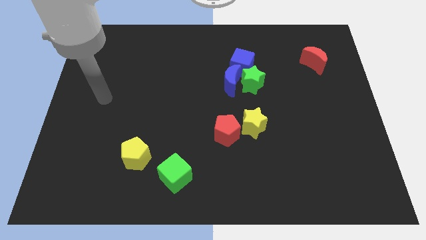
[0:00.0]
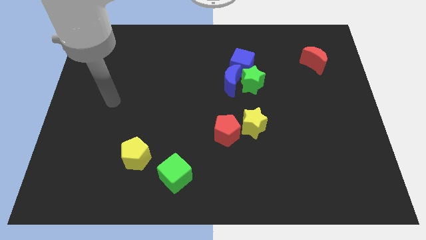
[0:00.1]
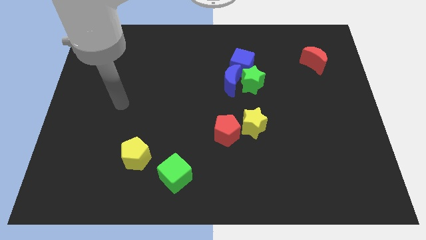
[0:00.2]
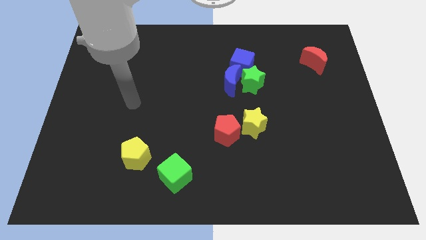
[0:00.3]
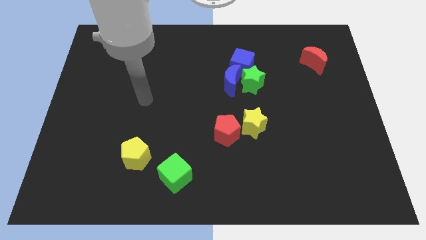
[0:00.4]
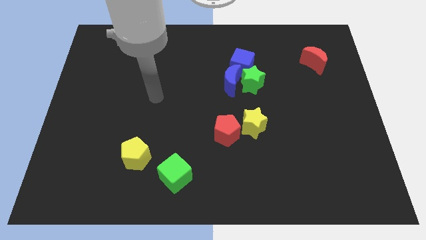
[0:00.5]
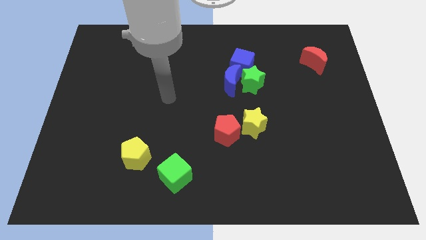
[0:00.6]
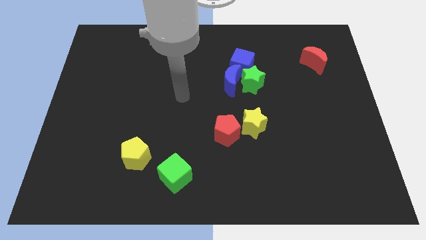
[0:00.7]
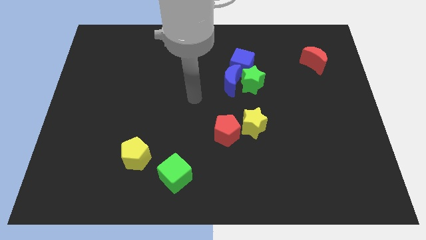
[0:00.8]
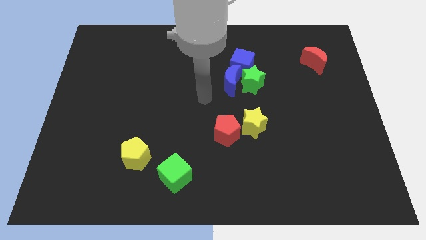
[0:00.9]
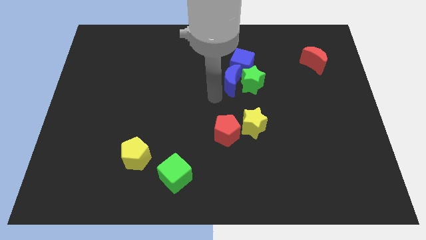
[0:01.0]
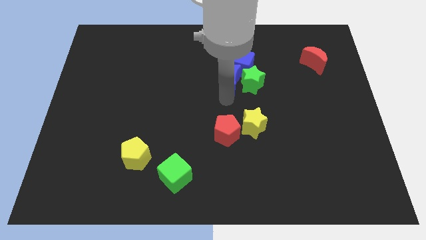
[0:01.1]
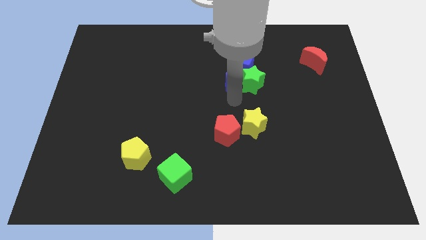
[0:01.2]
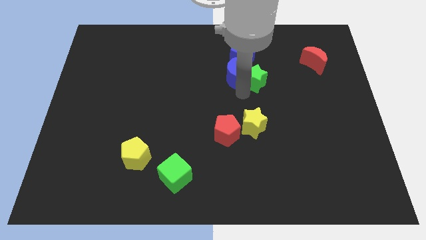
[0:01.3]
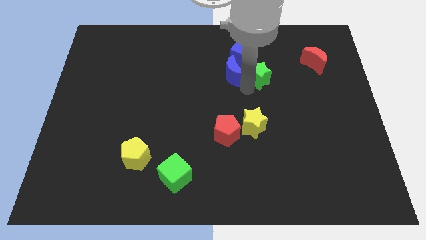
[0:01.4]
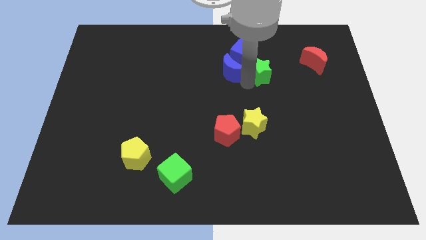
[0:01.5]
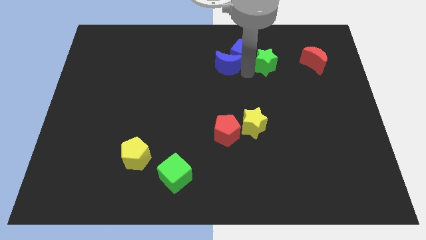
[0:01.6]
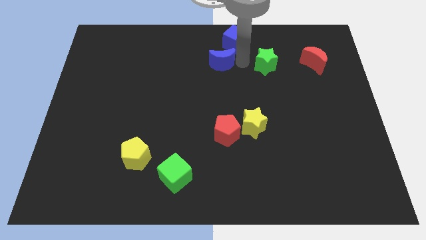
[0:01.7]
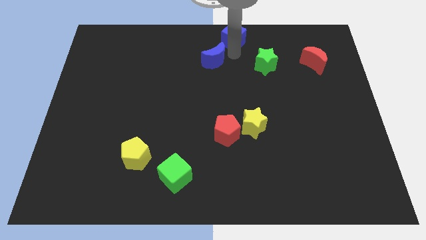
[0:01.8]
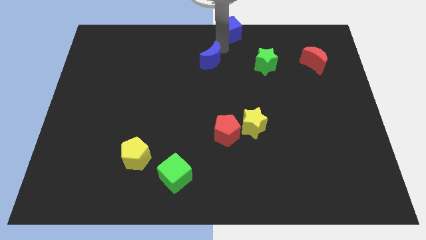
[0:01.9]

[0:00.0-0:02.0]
move the blue moon away from the green star and blue cube

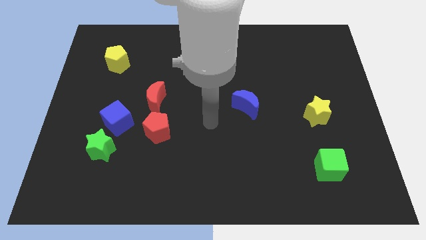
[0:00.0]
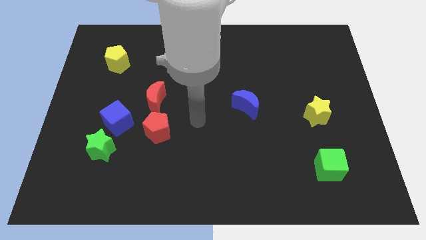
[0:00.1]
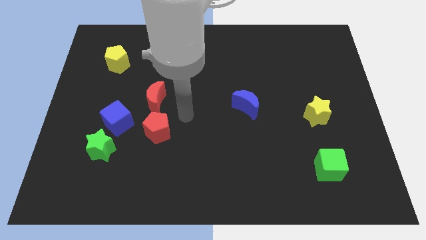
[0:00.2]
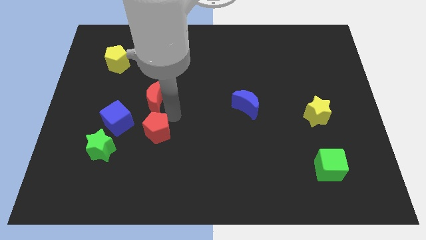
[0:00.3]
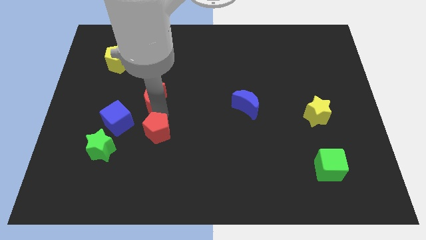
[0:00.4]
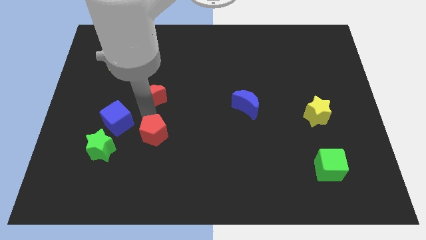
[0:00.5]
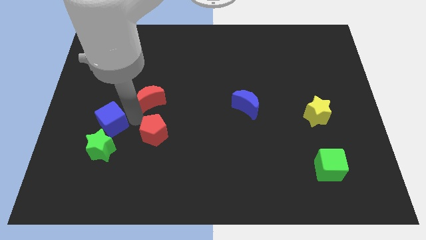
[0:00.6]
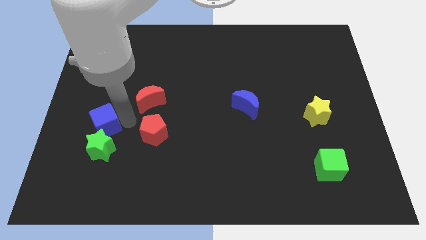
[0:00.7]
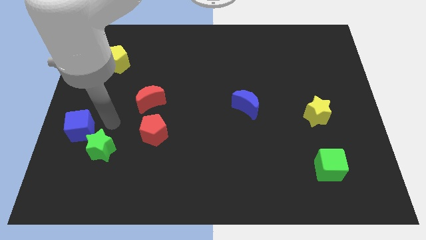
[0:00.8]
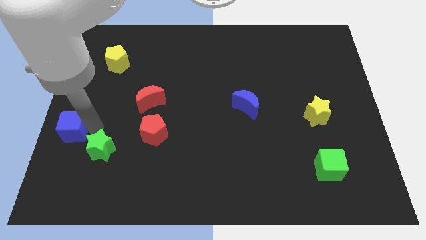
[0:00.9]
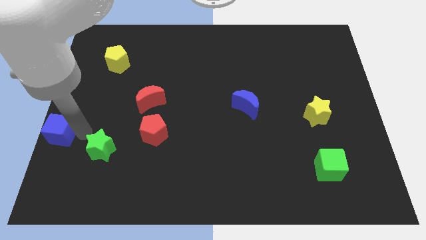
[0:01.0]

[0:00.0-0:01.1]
separate the green star from the blue cube

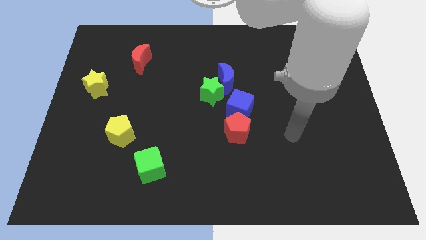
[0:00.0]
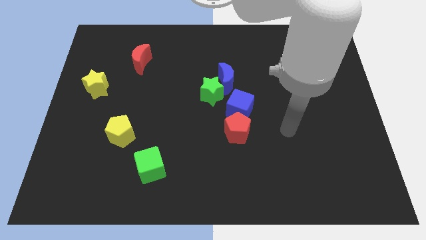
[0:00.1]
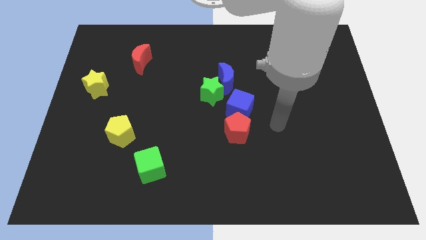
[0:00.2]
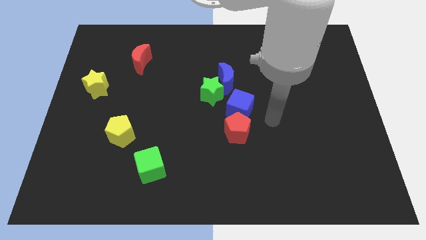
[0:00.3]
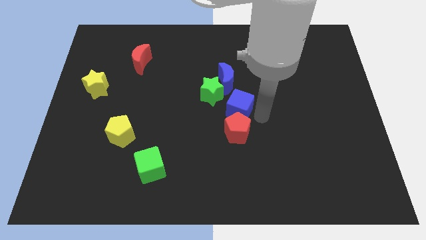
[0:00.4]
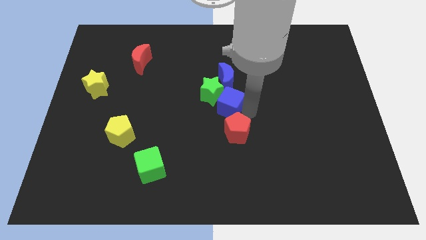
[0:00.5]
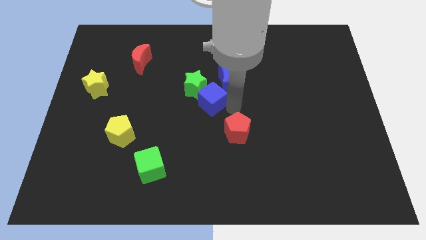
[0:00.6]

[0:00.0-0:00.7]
move the red pentagon away from the blue cube

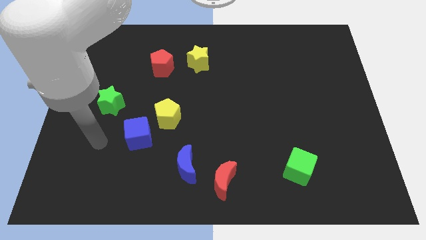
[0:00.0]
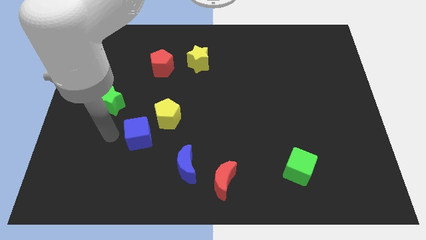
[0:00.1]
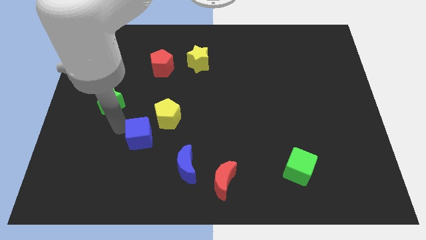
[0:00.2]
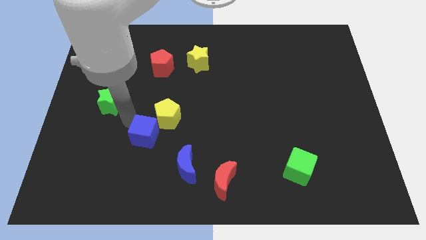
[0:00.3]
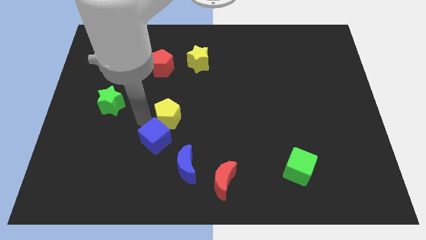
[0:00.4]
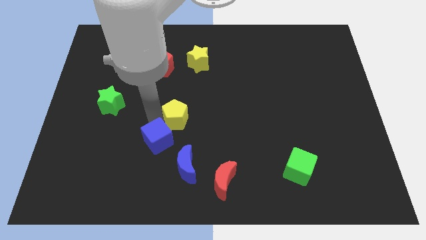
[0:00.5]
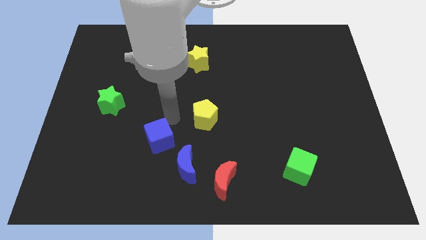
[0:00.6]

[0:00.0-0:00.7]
move the blue cube away from the yellow pentagon

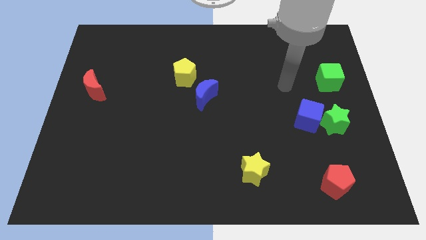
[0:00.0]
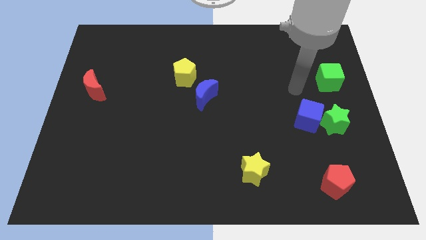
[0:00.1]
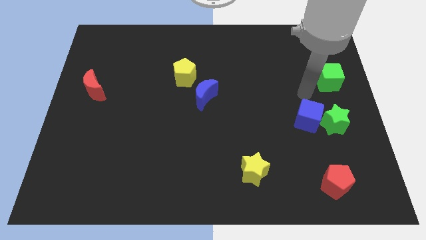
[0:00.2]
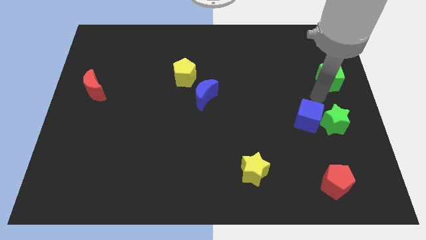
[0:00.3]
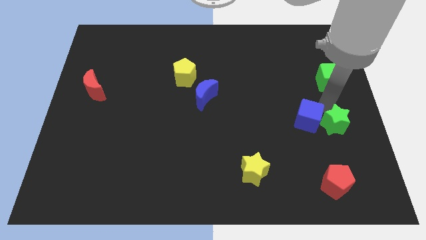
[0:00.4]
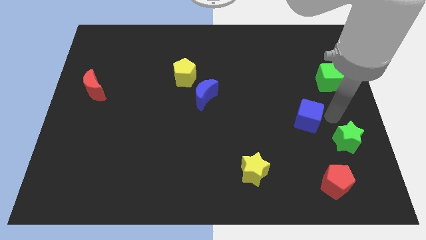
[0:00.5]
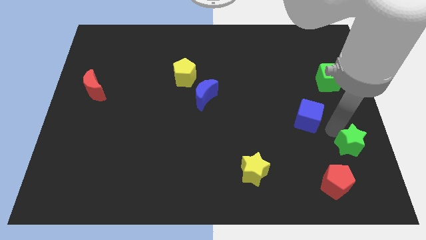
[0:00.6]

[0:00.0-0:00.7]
move the blue cube away from the green star

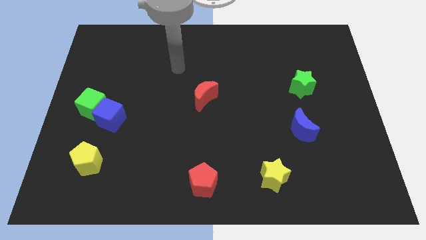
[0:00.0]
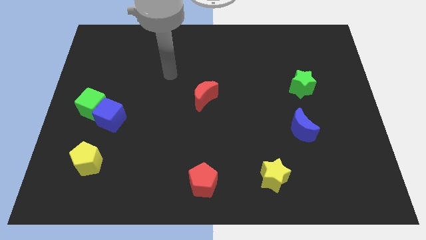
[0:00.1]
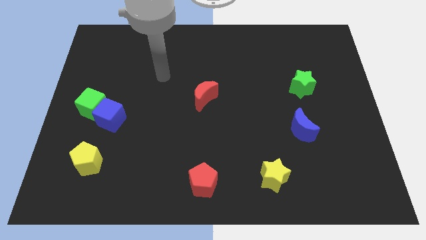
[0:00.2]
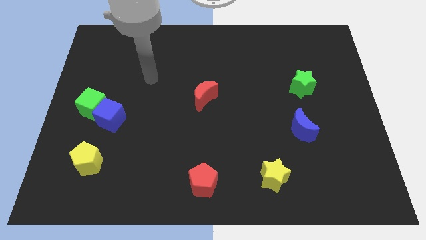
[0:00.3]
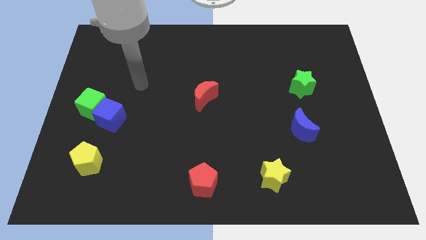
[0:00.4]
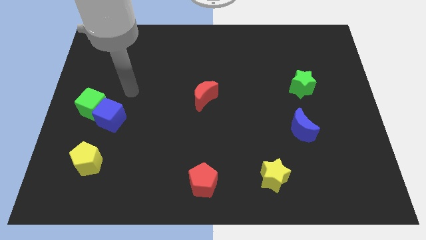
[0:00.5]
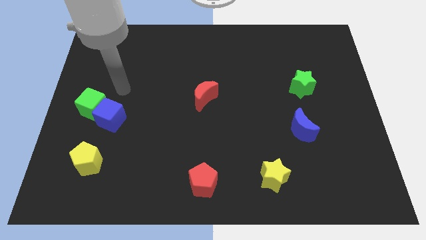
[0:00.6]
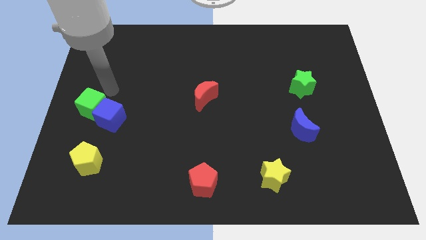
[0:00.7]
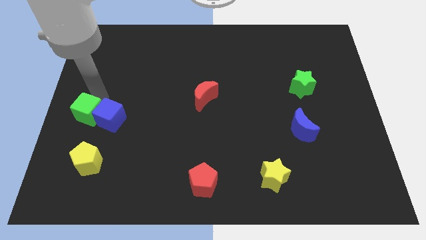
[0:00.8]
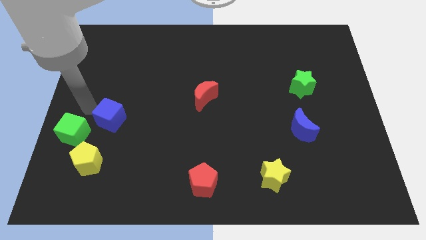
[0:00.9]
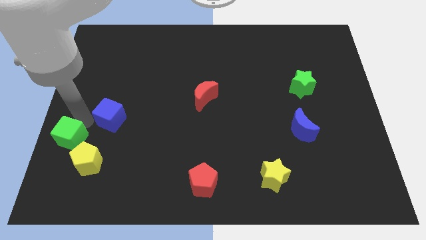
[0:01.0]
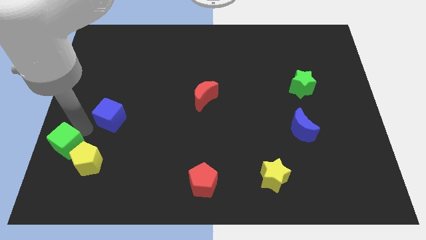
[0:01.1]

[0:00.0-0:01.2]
pull the blue cube apart from the green cube

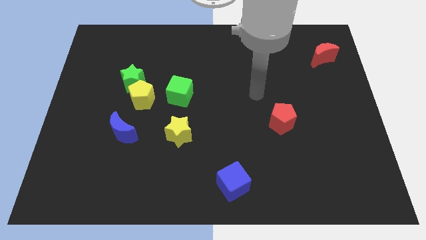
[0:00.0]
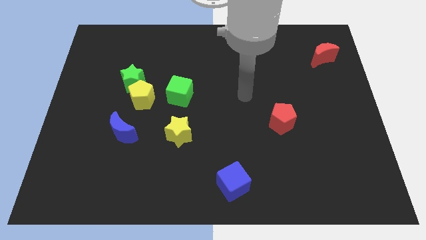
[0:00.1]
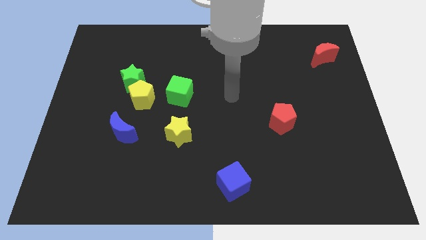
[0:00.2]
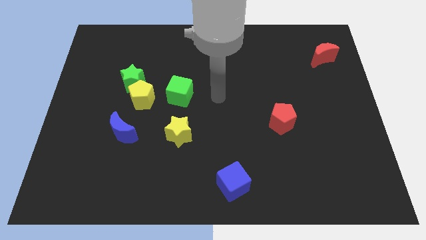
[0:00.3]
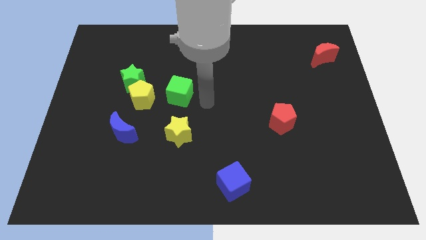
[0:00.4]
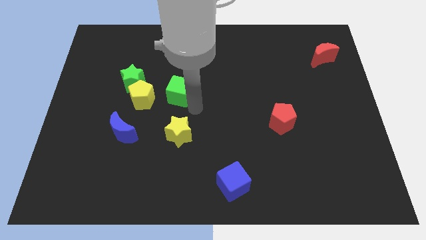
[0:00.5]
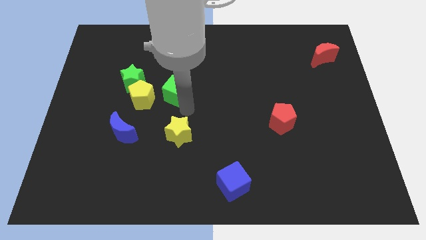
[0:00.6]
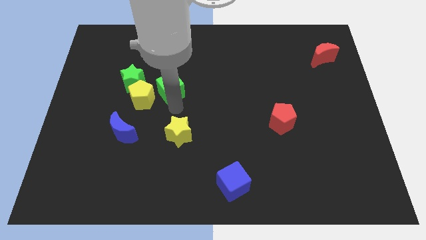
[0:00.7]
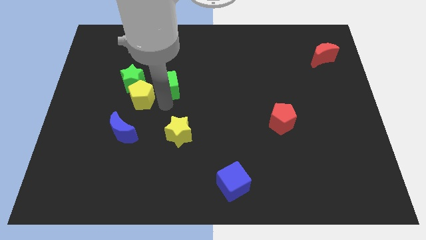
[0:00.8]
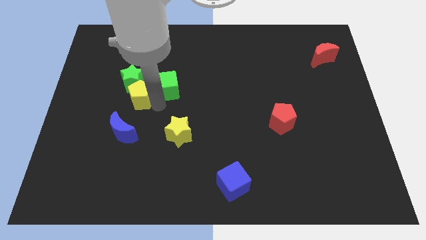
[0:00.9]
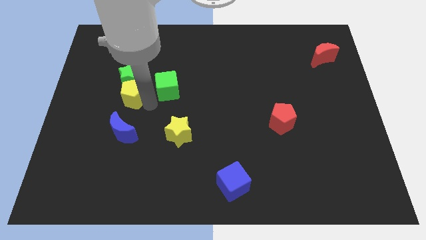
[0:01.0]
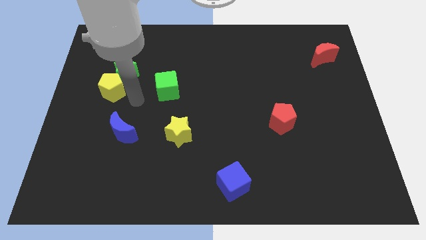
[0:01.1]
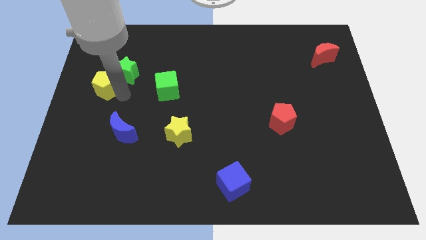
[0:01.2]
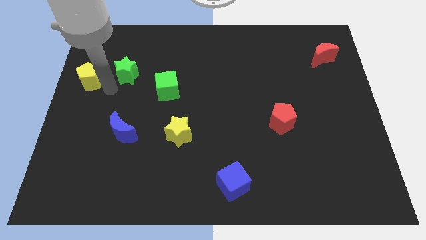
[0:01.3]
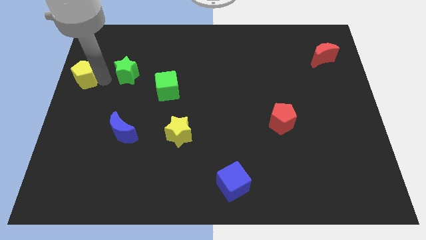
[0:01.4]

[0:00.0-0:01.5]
pull the green star apart from the yellow pentagon

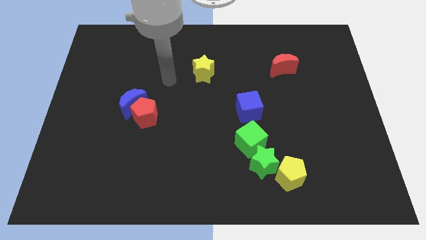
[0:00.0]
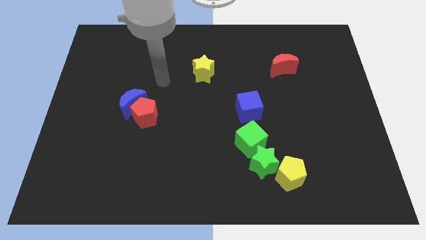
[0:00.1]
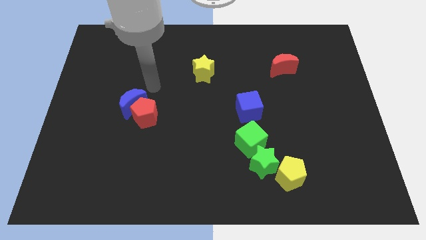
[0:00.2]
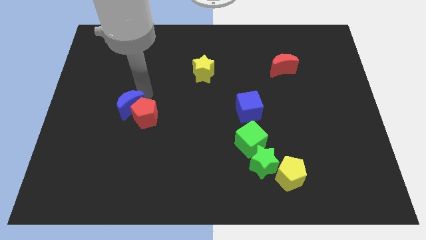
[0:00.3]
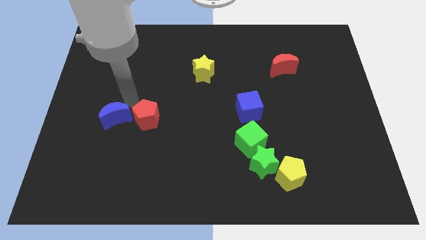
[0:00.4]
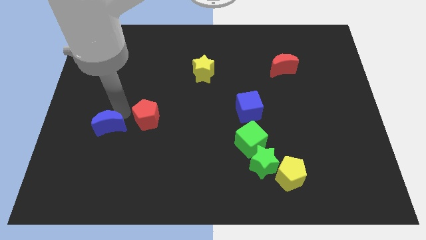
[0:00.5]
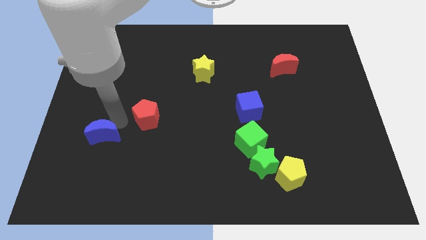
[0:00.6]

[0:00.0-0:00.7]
pull the red pentagon apart from the blue moon

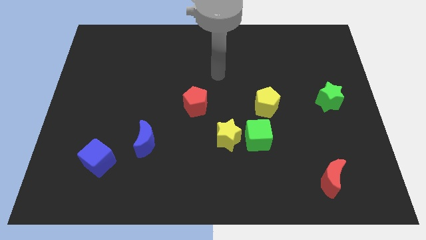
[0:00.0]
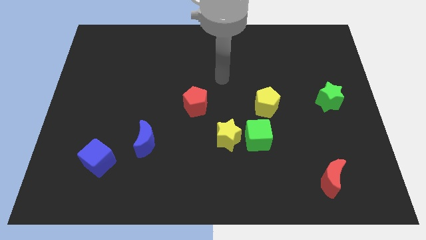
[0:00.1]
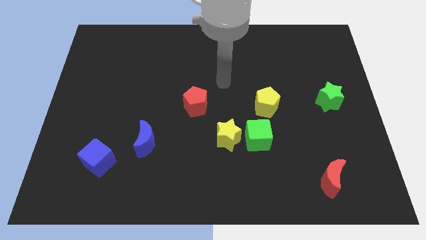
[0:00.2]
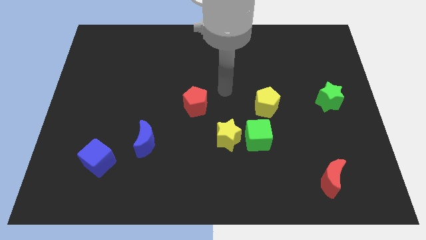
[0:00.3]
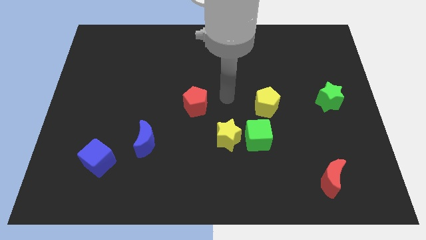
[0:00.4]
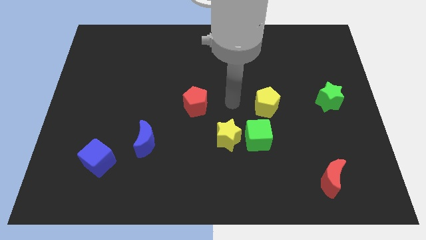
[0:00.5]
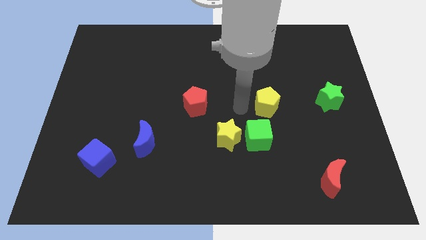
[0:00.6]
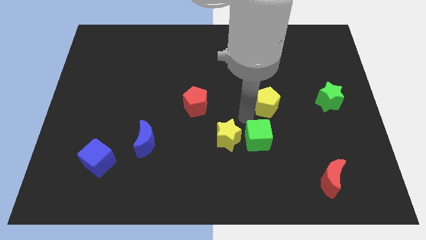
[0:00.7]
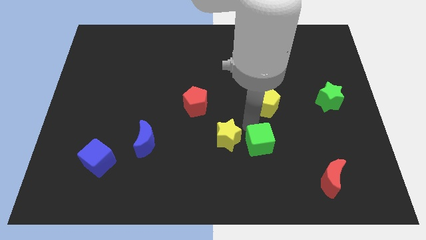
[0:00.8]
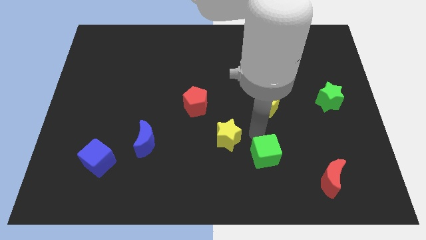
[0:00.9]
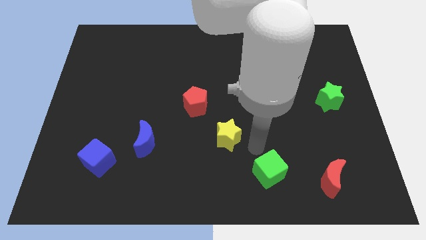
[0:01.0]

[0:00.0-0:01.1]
separate the yellow star from the green cube
